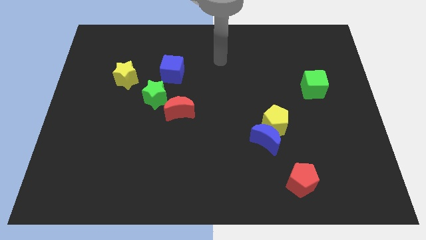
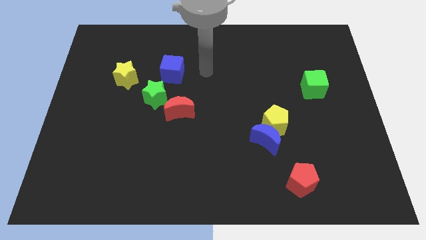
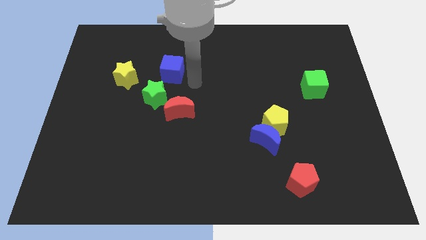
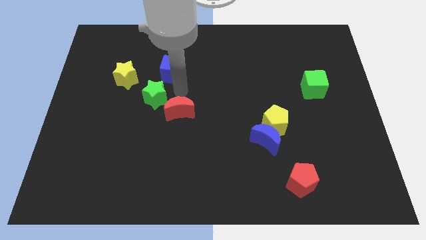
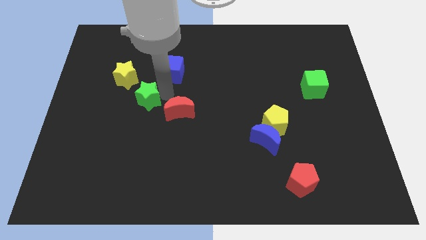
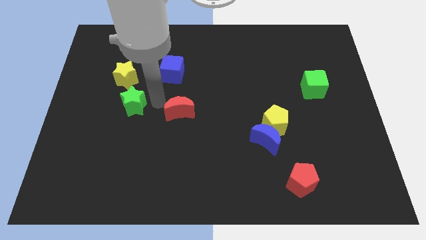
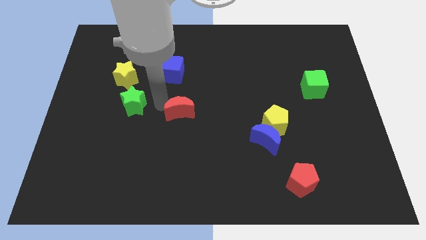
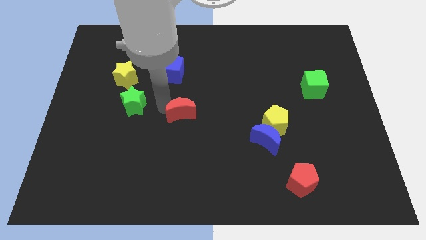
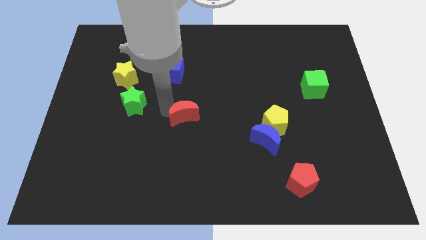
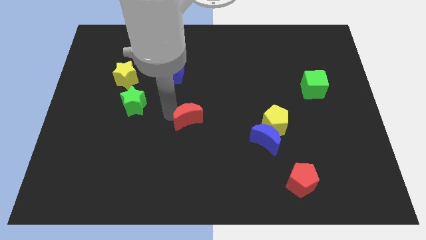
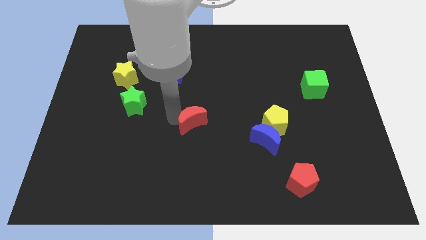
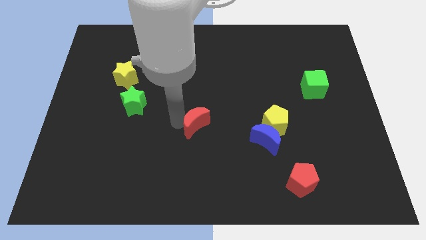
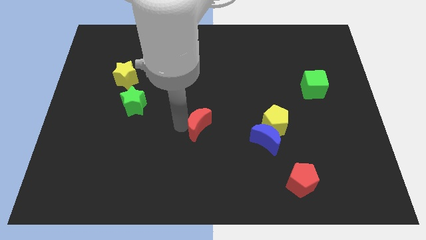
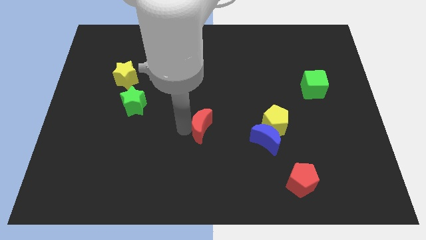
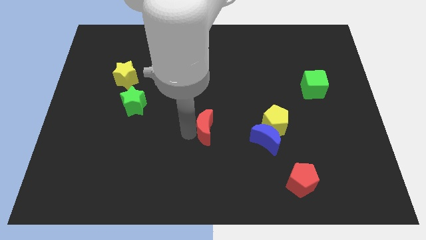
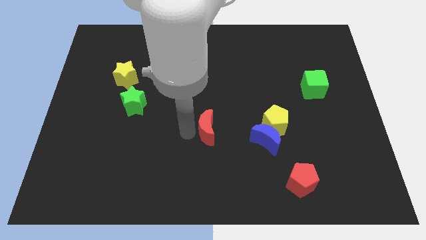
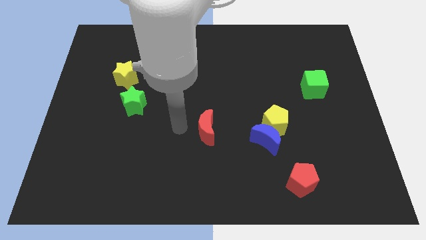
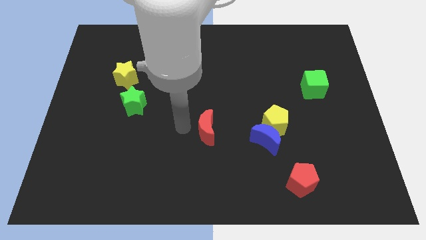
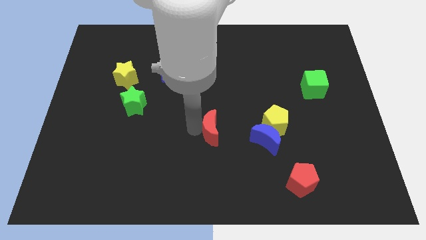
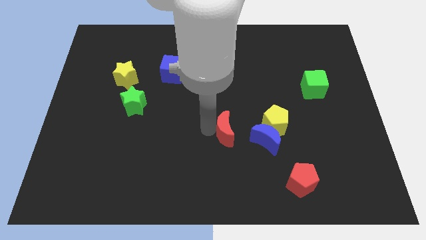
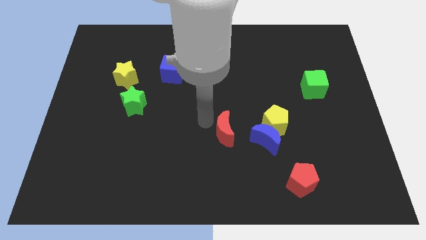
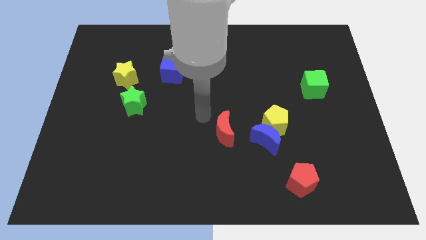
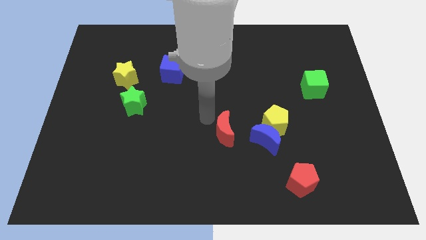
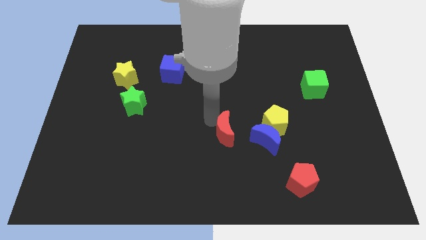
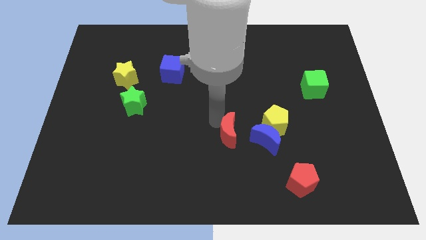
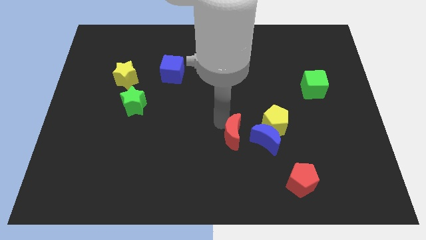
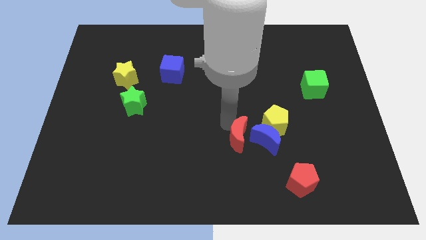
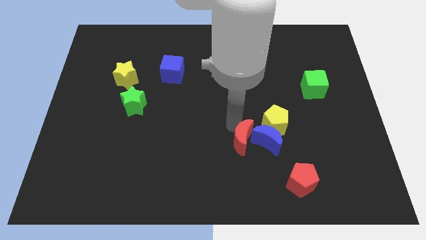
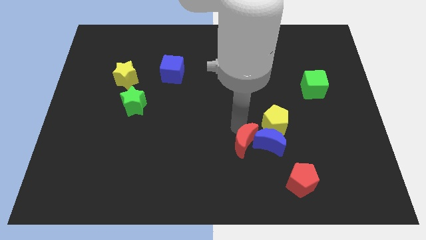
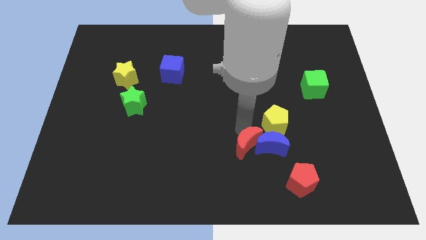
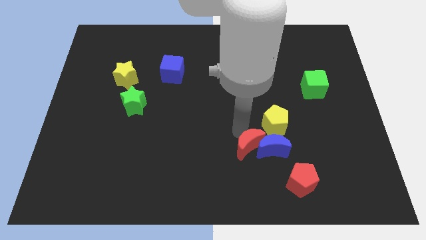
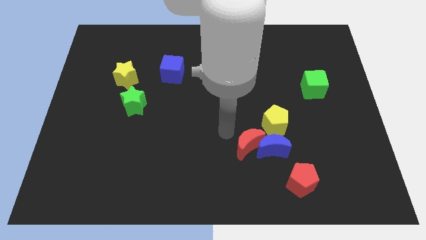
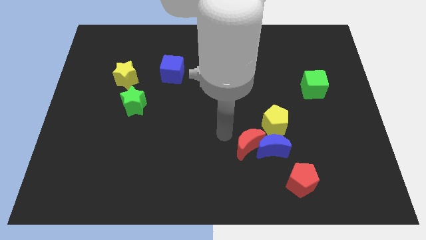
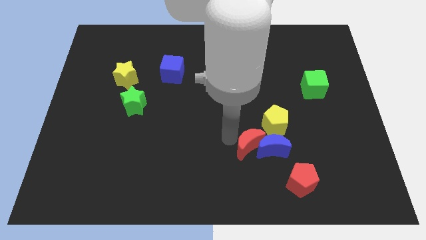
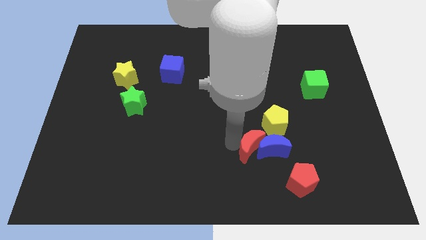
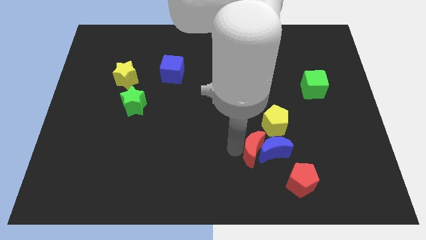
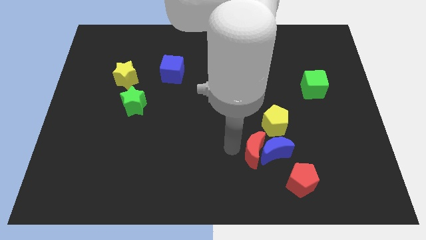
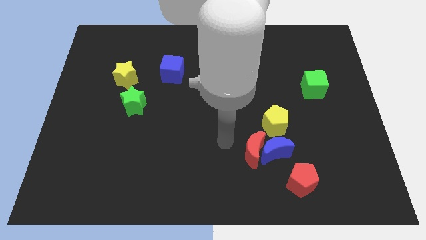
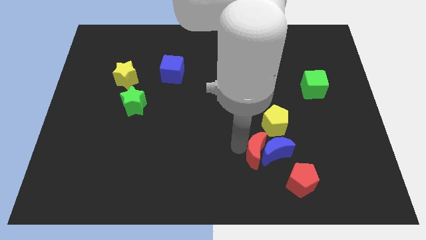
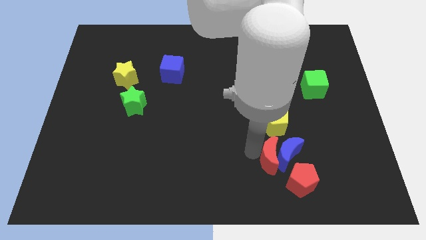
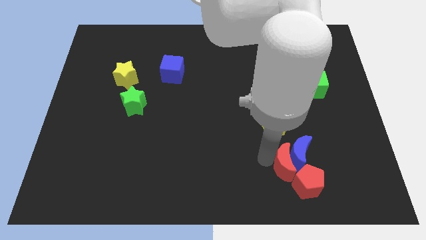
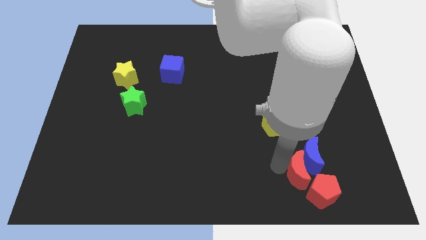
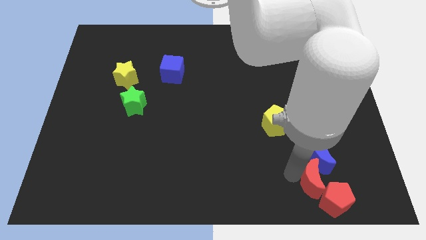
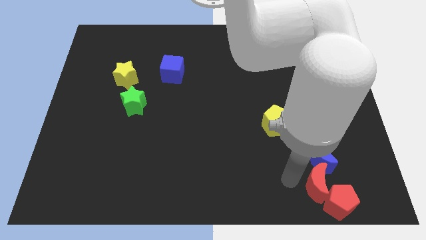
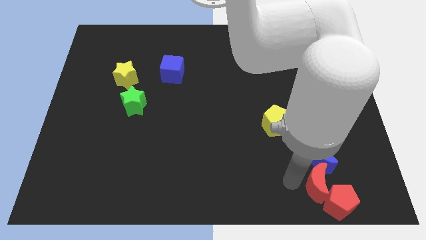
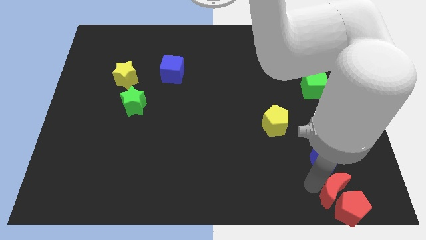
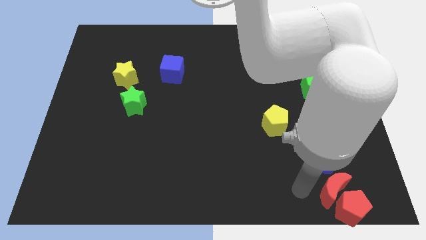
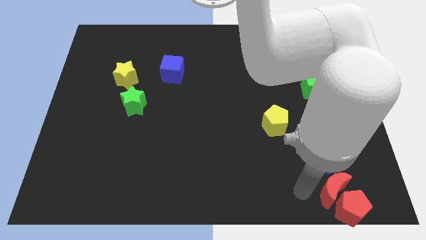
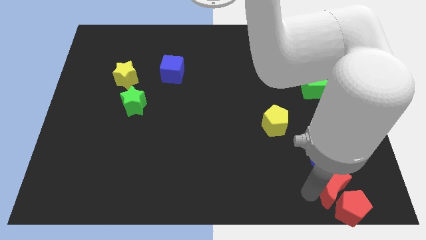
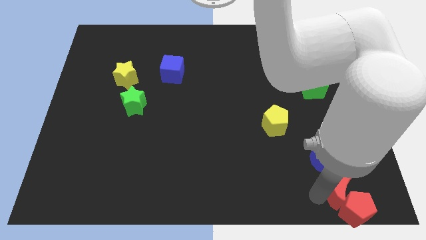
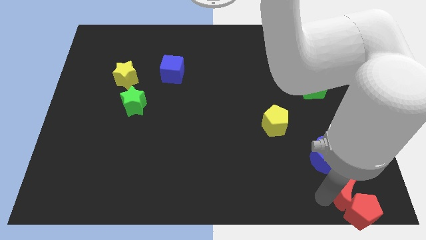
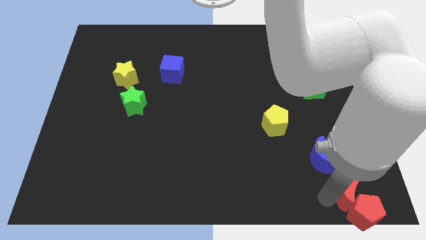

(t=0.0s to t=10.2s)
move the red moon to the bottom right

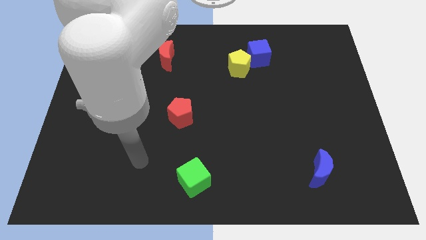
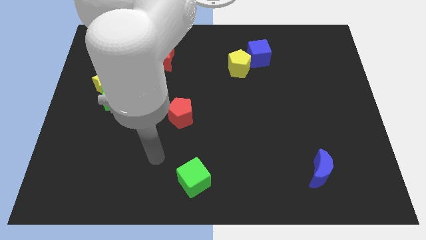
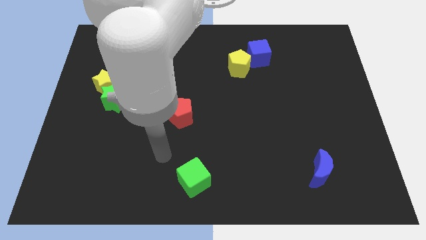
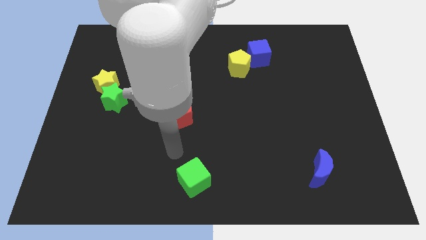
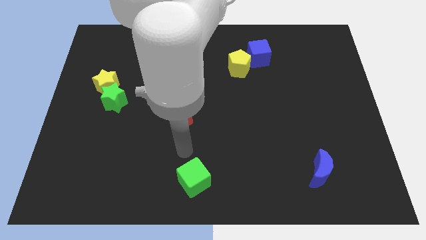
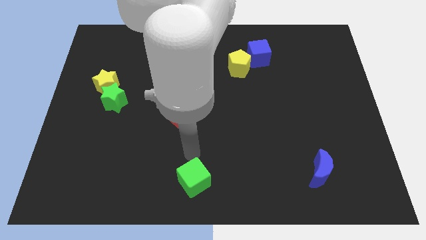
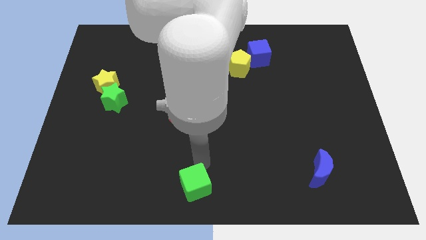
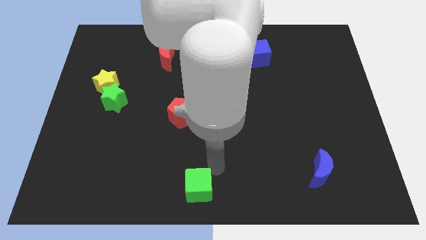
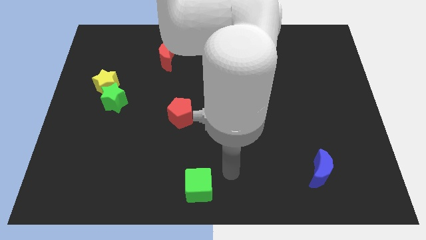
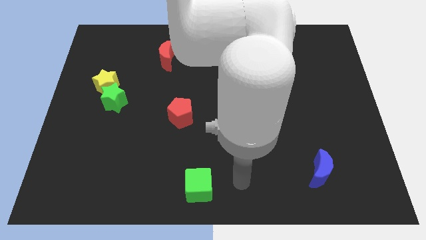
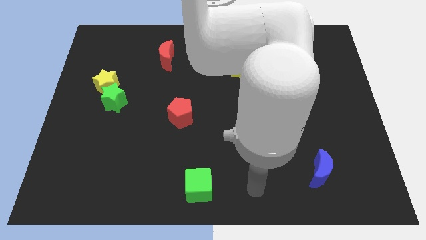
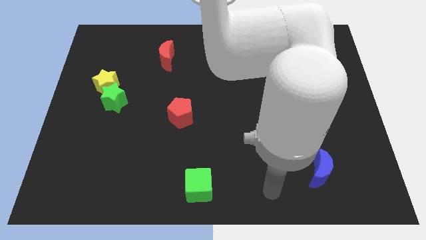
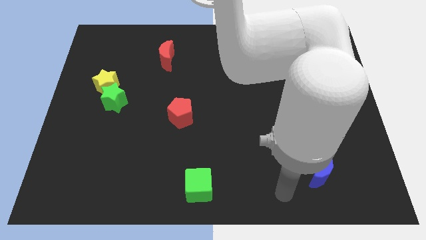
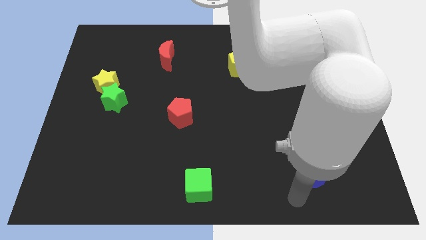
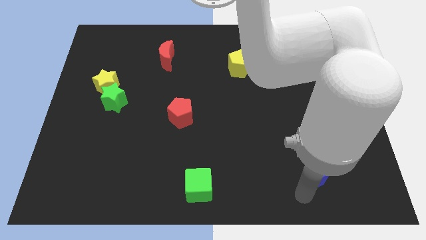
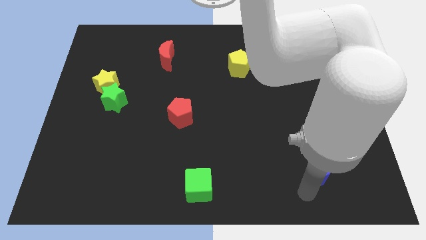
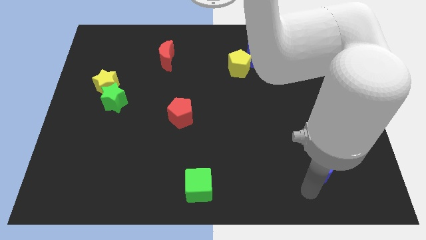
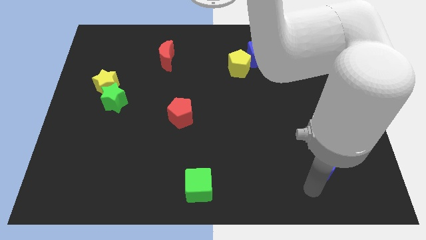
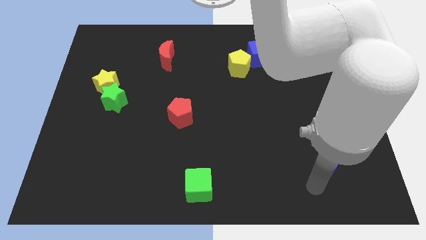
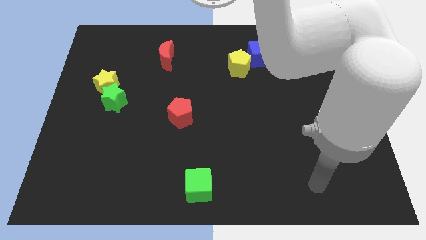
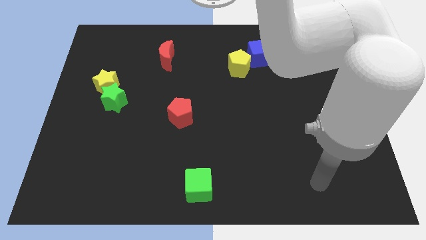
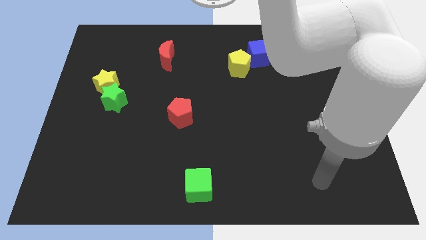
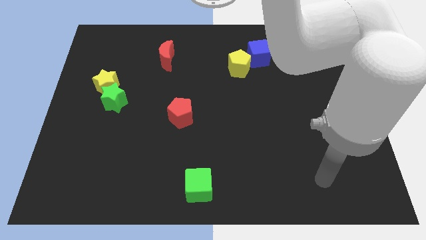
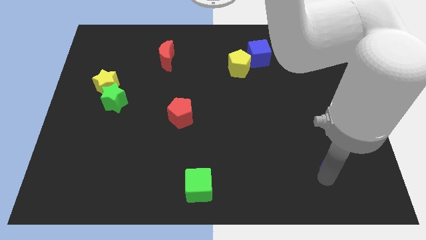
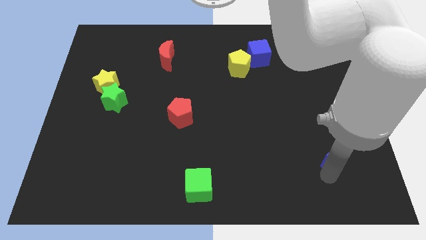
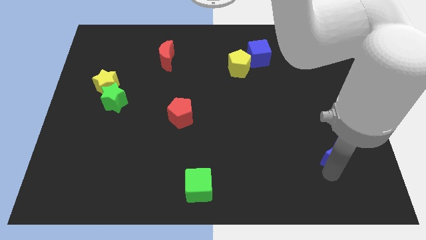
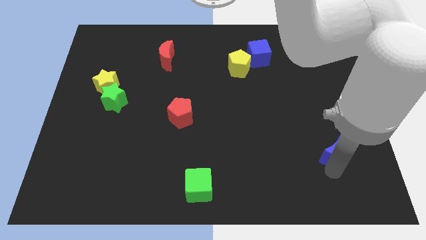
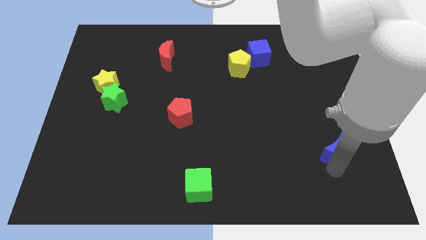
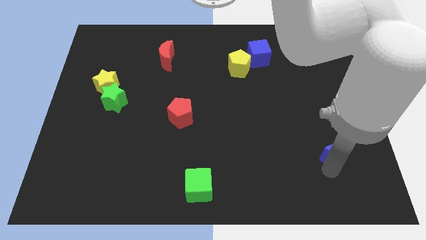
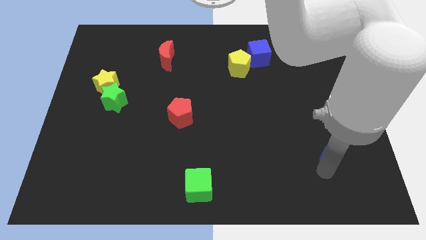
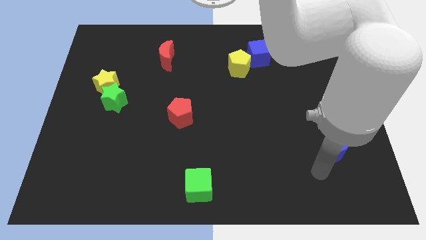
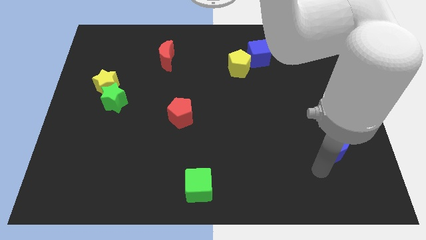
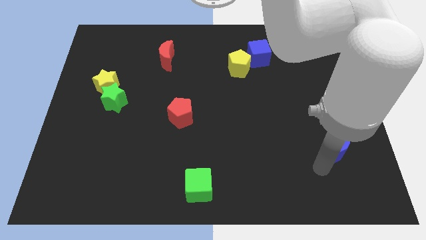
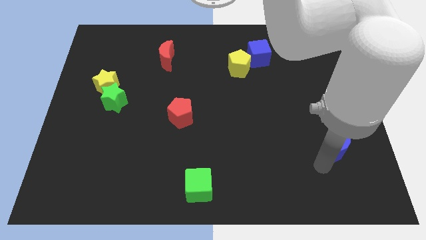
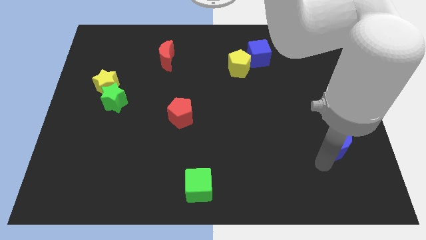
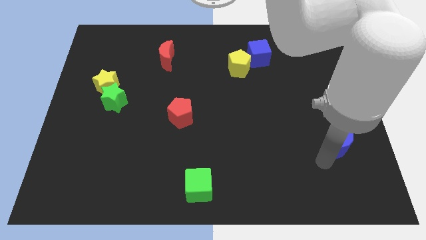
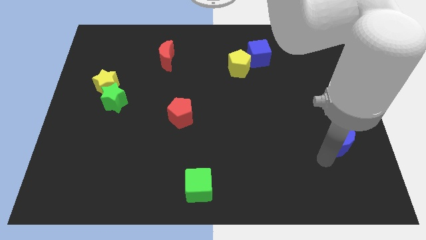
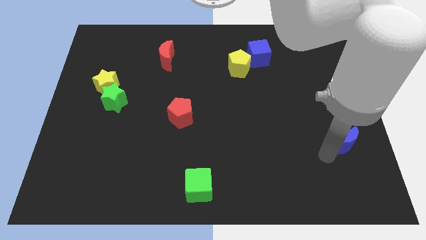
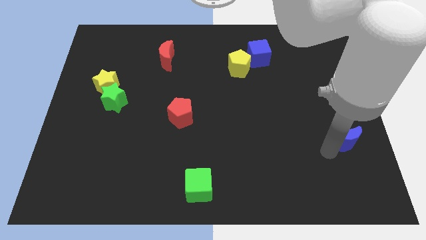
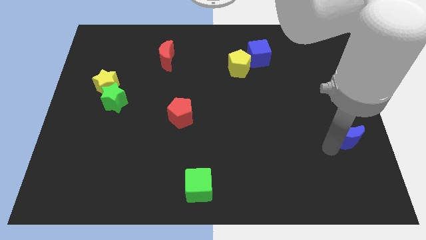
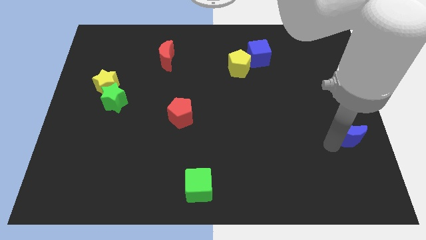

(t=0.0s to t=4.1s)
put the blue moon to the right side
